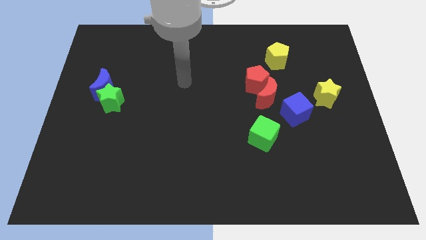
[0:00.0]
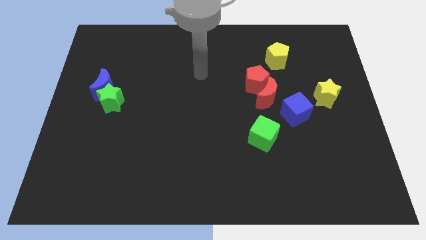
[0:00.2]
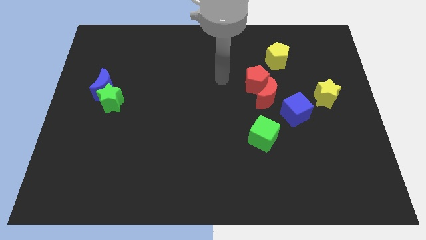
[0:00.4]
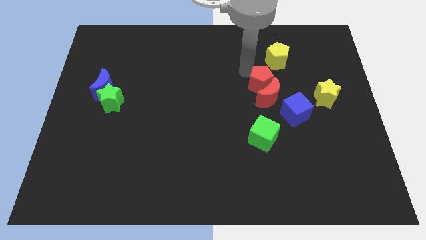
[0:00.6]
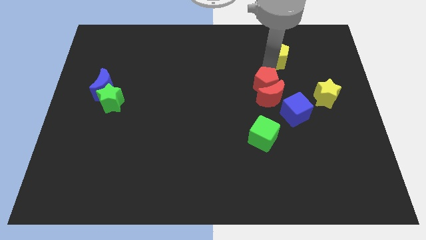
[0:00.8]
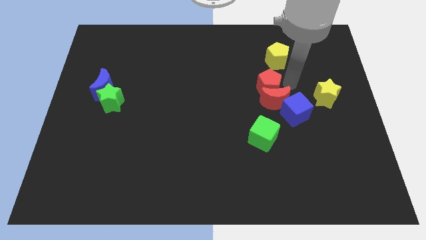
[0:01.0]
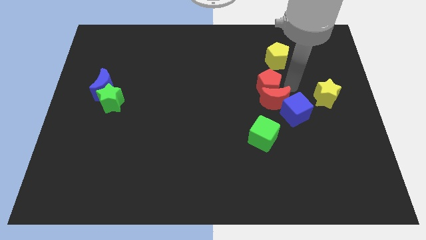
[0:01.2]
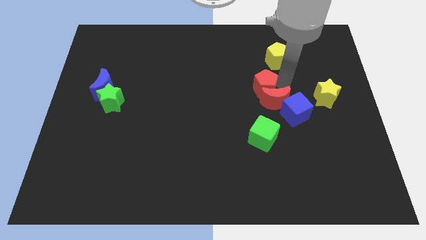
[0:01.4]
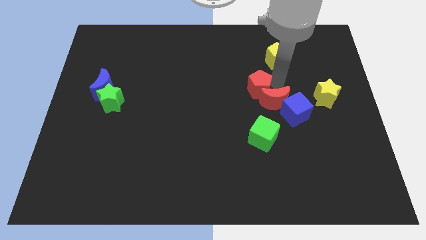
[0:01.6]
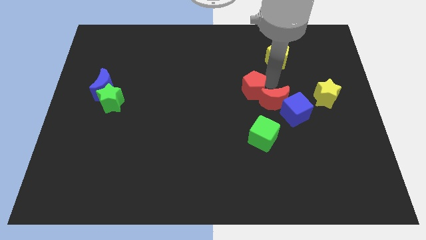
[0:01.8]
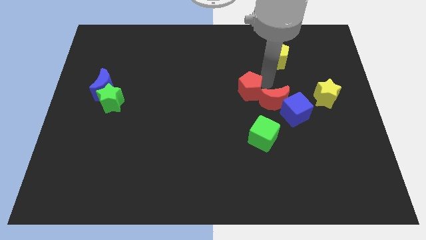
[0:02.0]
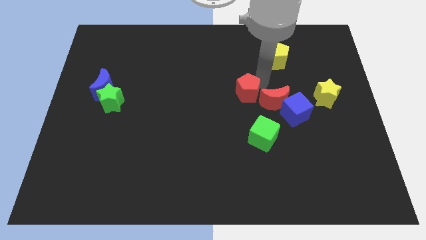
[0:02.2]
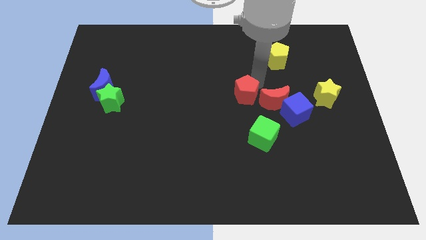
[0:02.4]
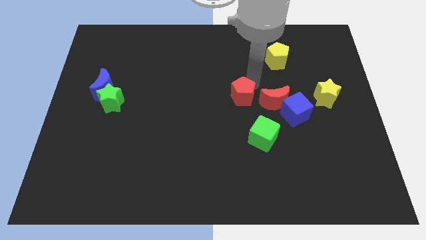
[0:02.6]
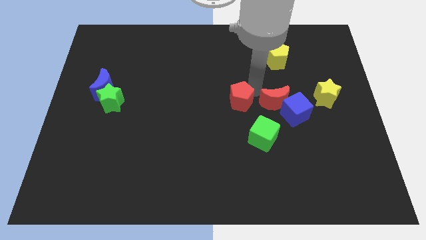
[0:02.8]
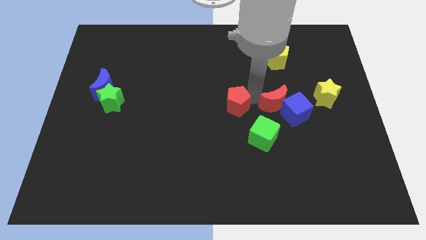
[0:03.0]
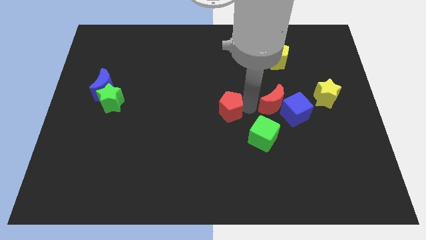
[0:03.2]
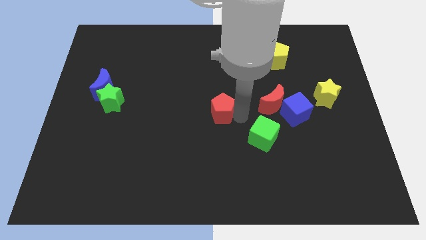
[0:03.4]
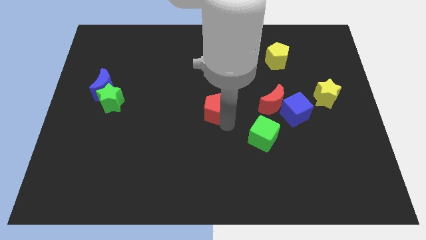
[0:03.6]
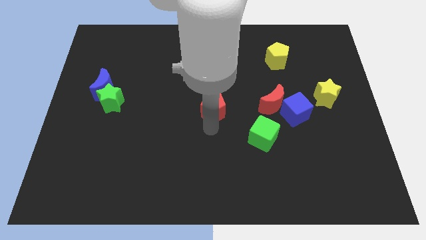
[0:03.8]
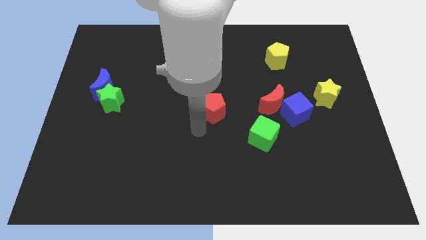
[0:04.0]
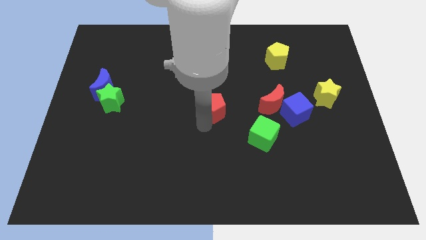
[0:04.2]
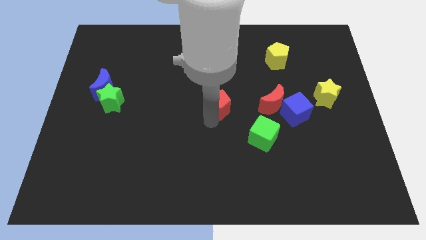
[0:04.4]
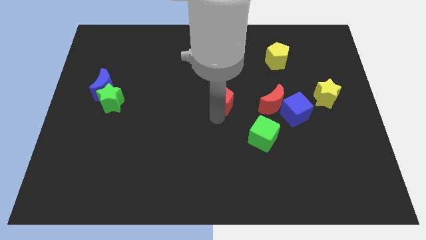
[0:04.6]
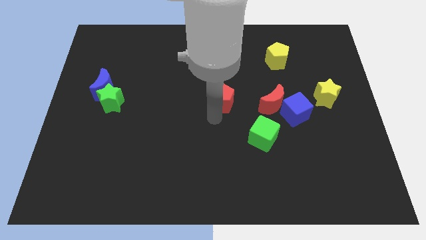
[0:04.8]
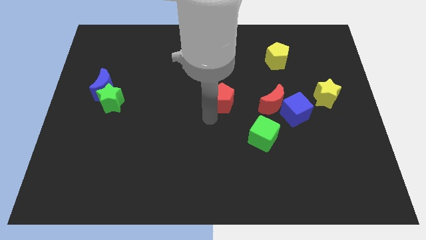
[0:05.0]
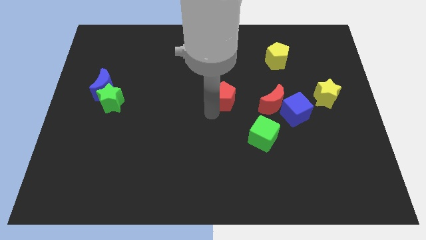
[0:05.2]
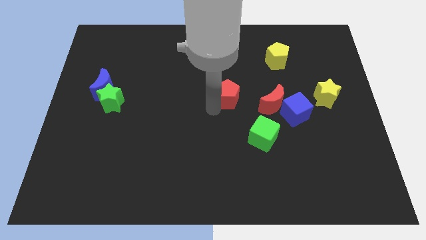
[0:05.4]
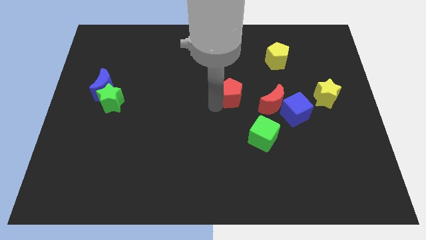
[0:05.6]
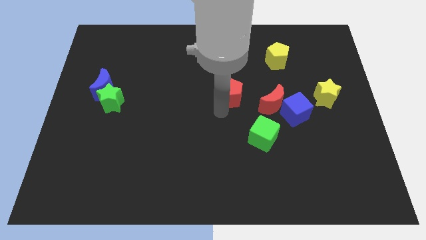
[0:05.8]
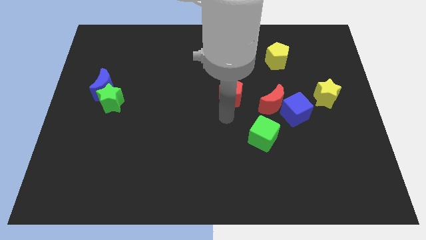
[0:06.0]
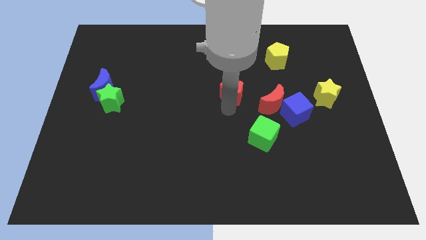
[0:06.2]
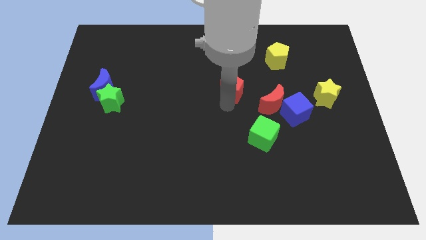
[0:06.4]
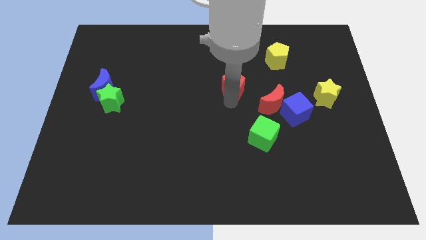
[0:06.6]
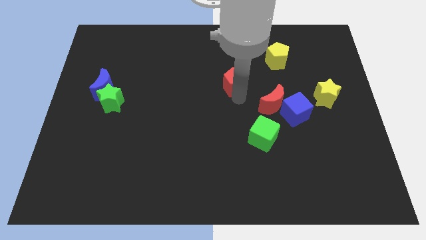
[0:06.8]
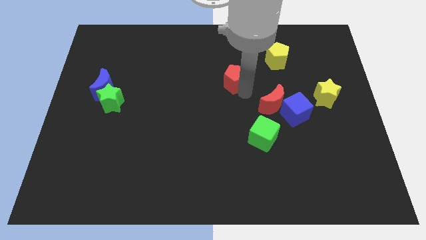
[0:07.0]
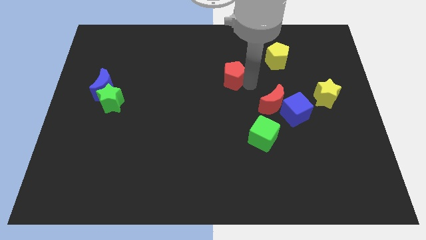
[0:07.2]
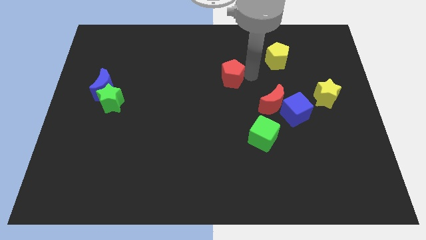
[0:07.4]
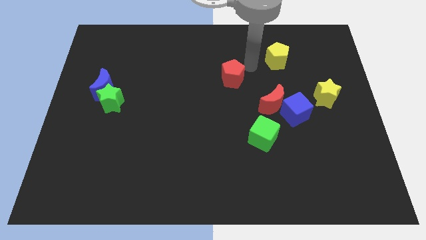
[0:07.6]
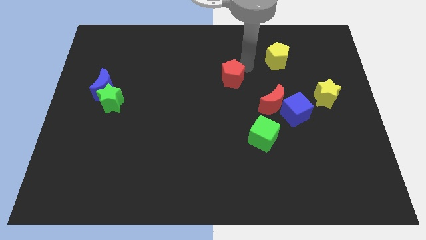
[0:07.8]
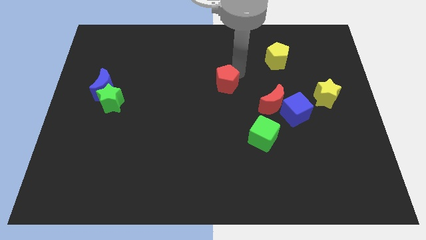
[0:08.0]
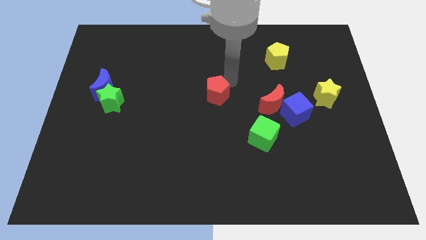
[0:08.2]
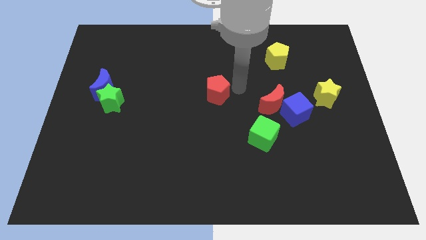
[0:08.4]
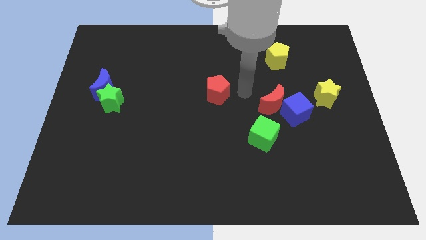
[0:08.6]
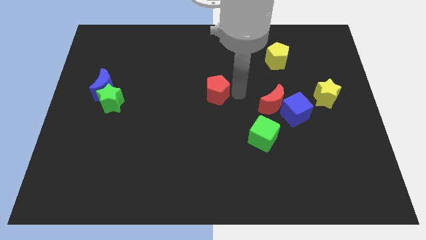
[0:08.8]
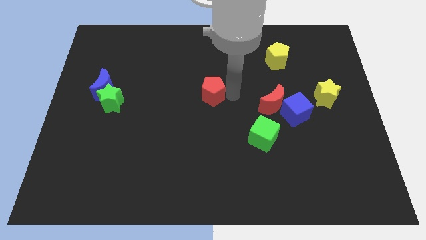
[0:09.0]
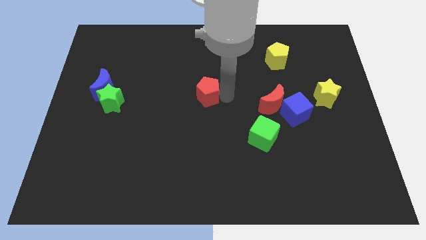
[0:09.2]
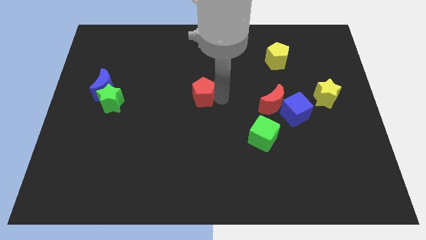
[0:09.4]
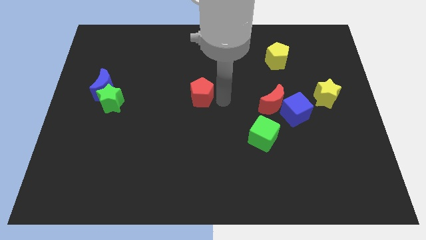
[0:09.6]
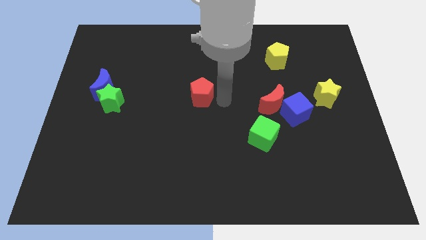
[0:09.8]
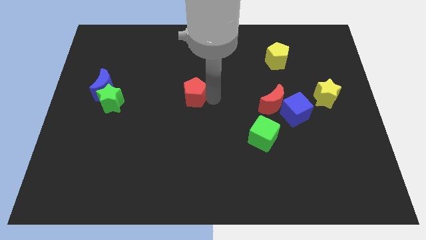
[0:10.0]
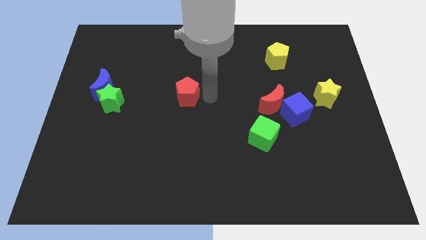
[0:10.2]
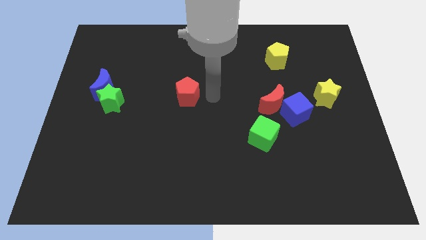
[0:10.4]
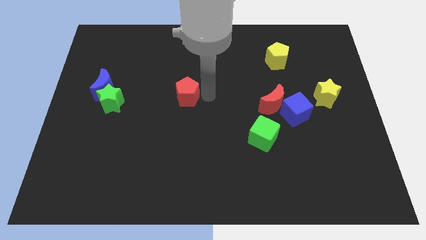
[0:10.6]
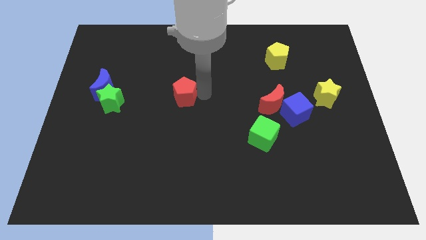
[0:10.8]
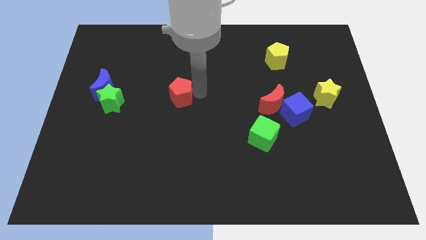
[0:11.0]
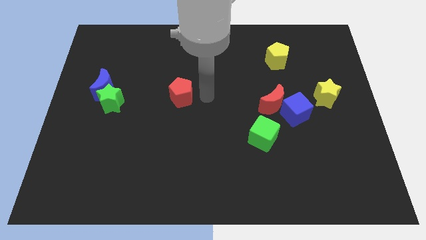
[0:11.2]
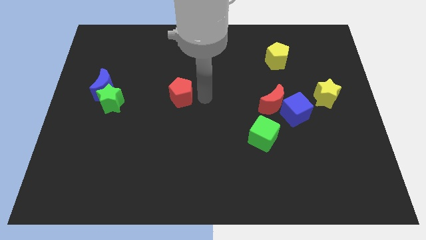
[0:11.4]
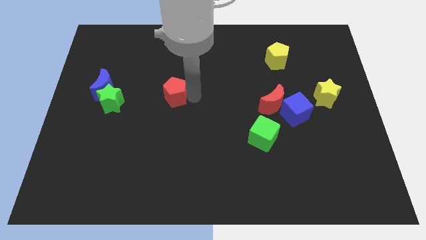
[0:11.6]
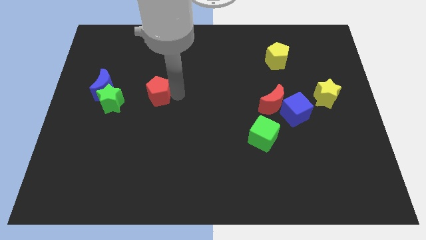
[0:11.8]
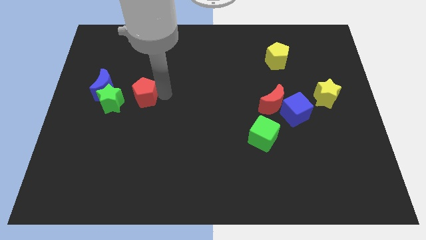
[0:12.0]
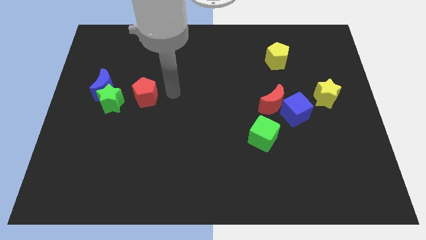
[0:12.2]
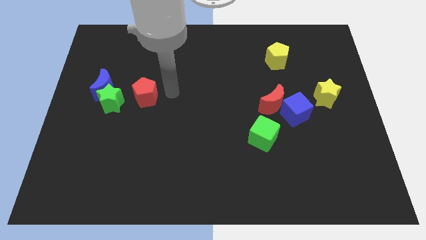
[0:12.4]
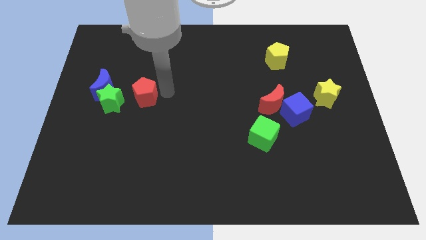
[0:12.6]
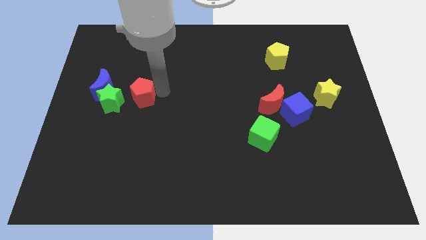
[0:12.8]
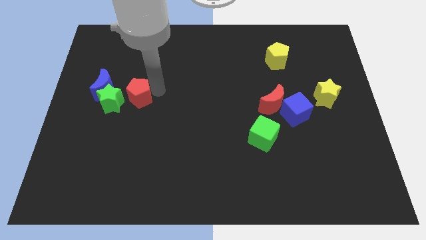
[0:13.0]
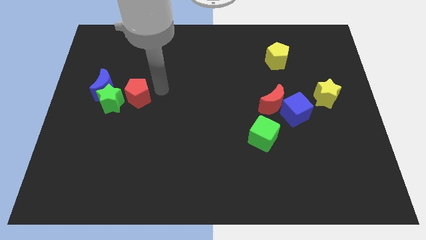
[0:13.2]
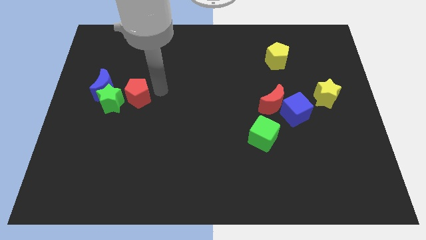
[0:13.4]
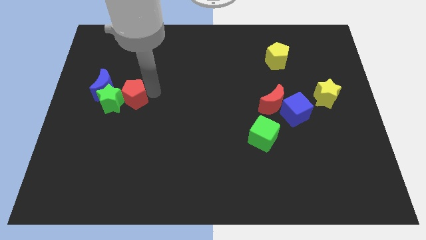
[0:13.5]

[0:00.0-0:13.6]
slide the red pentagon towards the green star
